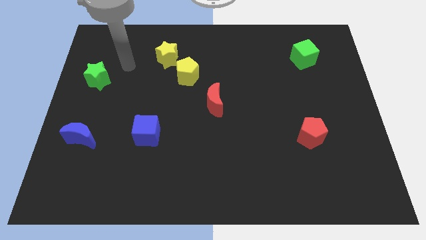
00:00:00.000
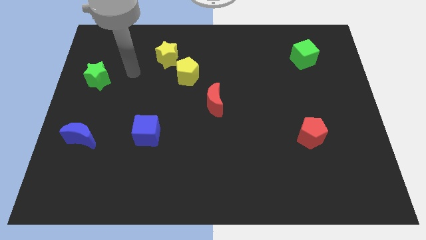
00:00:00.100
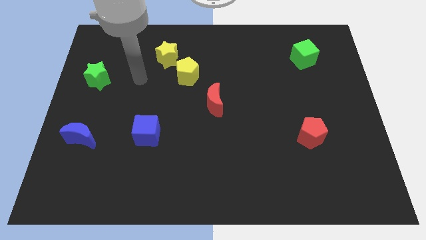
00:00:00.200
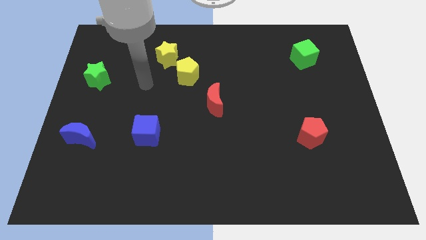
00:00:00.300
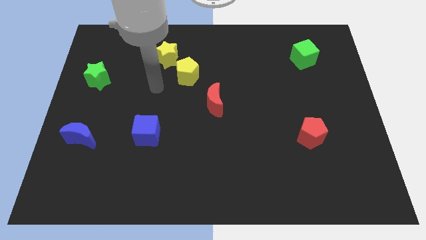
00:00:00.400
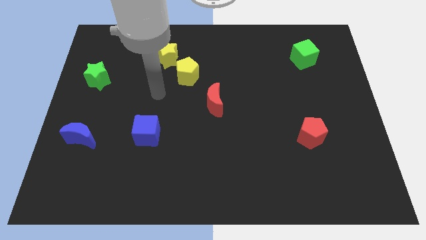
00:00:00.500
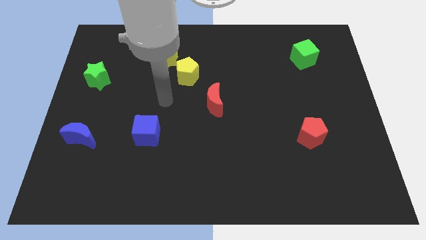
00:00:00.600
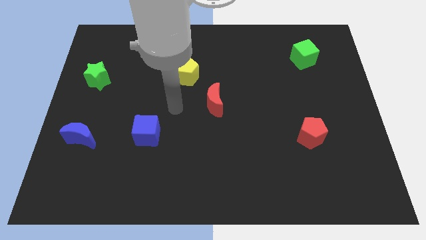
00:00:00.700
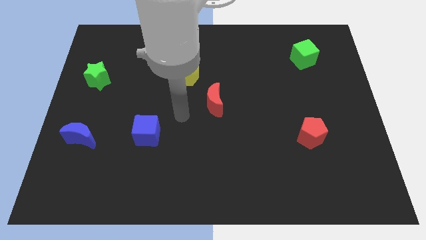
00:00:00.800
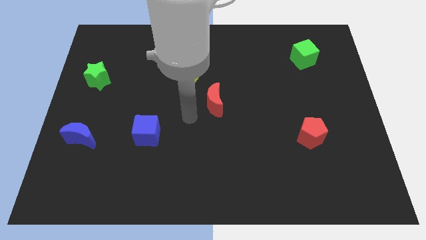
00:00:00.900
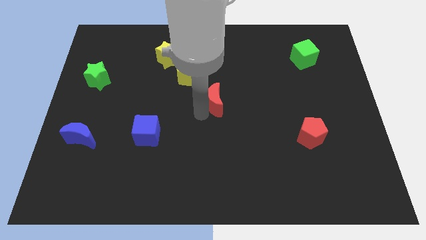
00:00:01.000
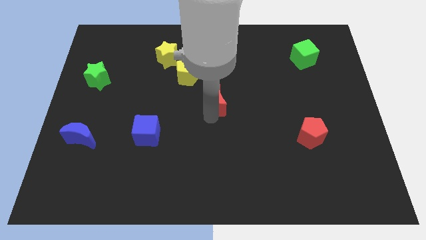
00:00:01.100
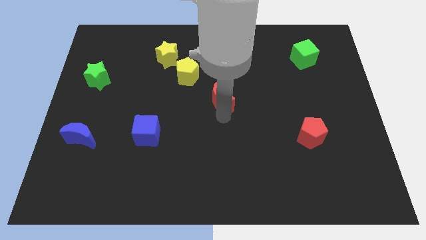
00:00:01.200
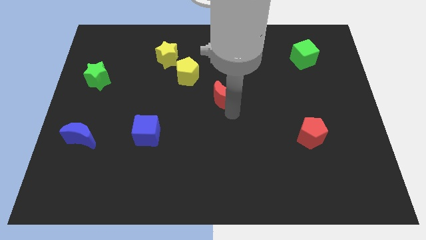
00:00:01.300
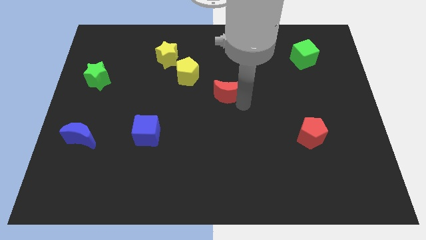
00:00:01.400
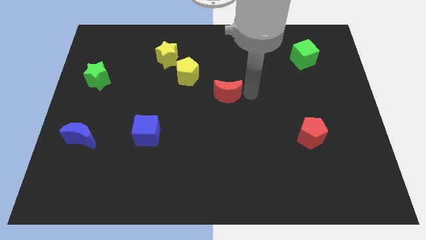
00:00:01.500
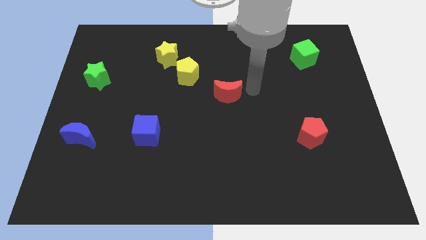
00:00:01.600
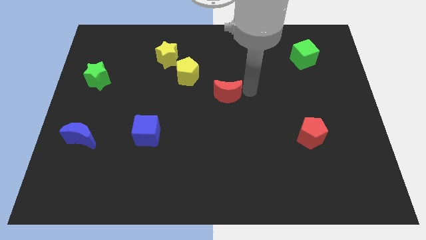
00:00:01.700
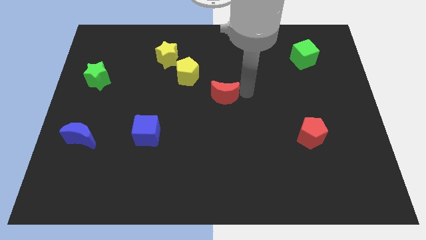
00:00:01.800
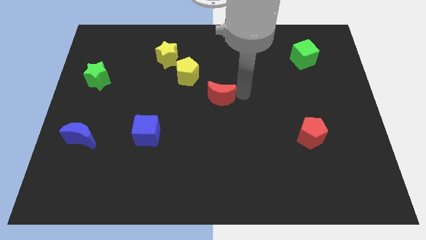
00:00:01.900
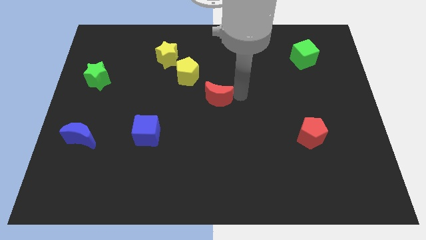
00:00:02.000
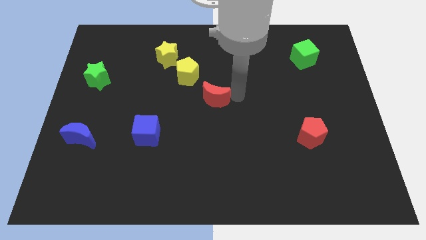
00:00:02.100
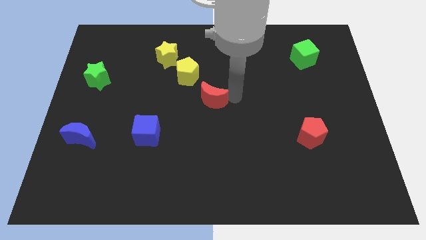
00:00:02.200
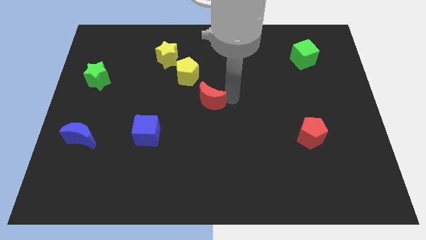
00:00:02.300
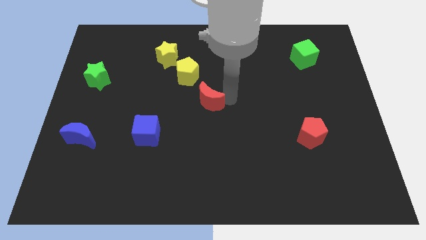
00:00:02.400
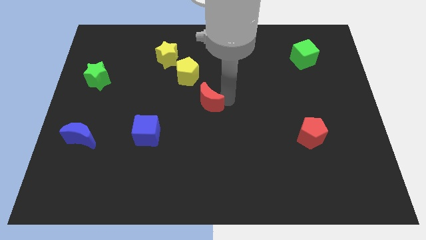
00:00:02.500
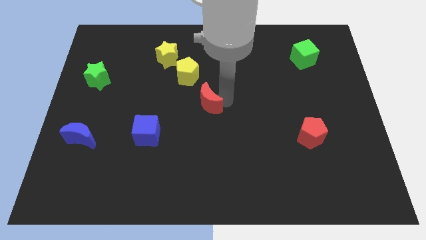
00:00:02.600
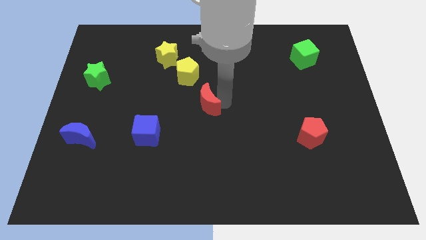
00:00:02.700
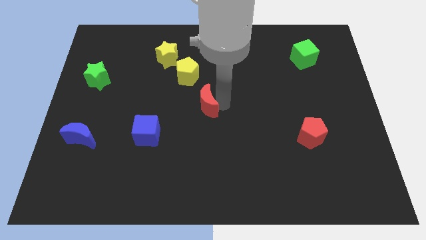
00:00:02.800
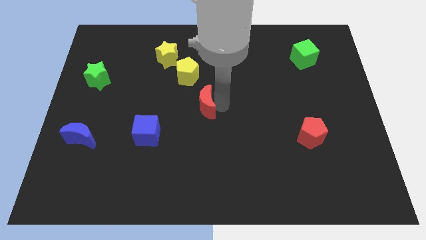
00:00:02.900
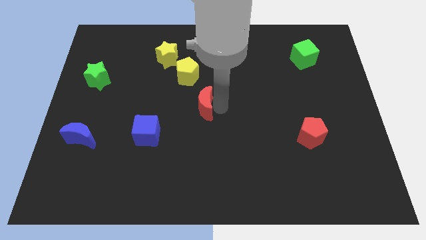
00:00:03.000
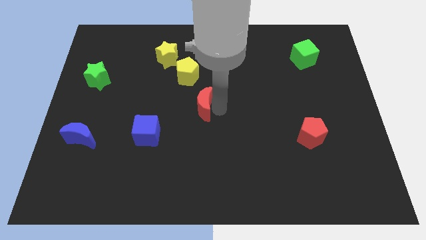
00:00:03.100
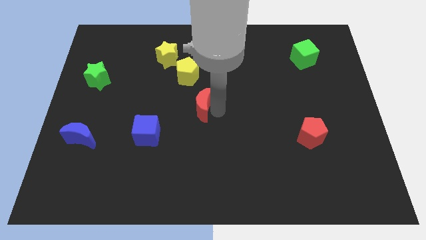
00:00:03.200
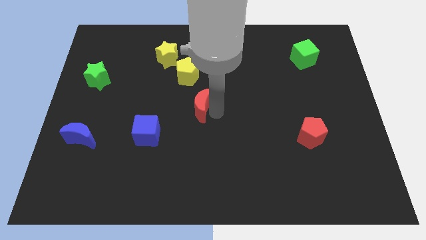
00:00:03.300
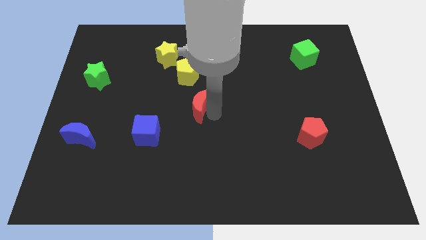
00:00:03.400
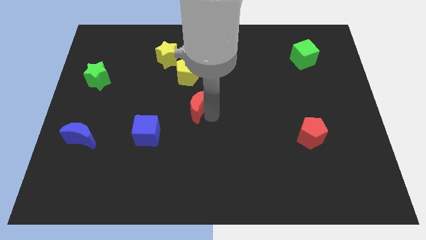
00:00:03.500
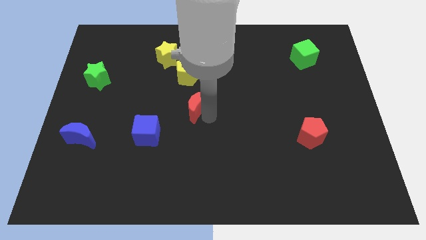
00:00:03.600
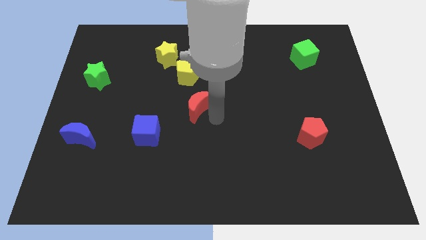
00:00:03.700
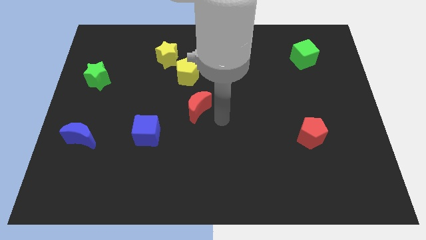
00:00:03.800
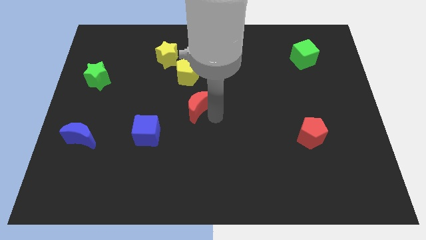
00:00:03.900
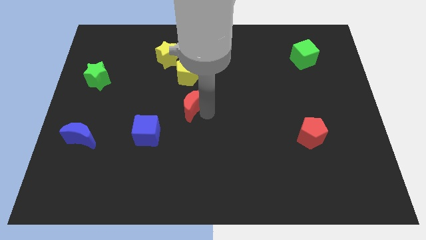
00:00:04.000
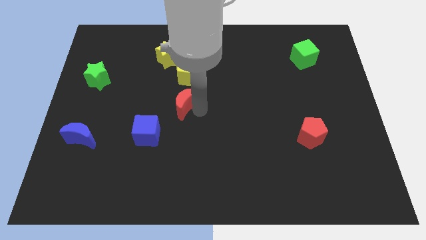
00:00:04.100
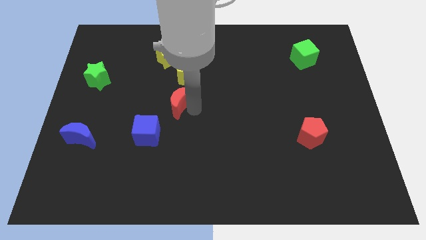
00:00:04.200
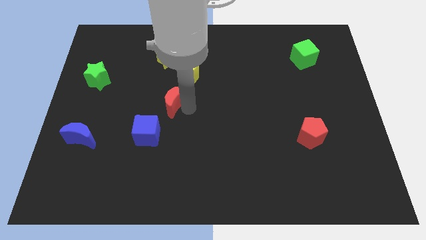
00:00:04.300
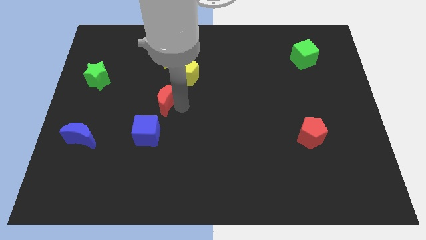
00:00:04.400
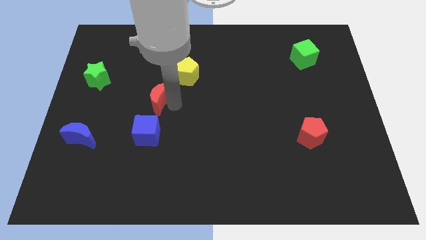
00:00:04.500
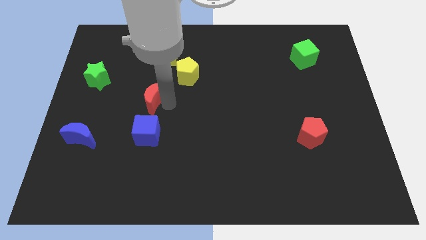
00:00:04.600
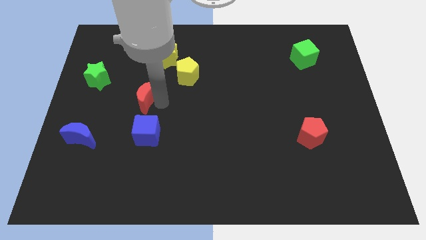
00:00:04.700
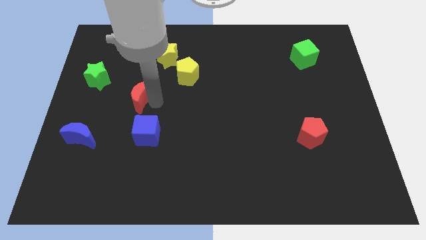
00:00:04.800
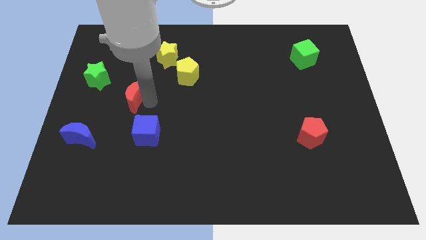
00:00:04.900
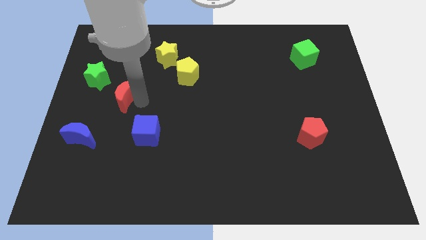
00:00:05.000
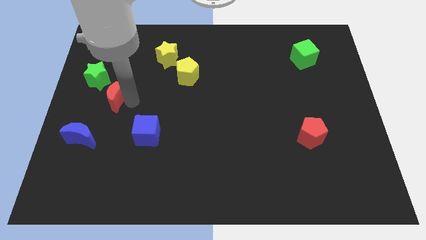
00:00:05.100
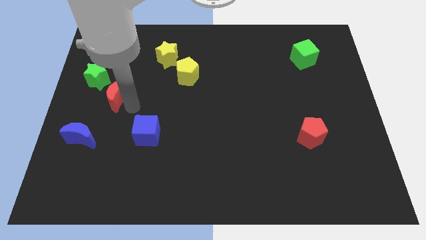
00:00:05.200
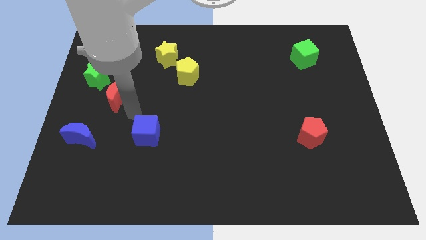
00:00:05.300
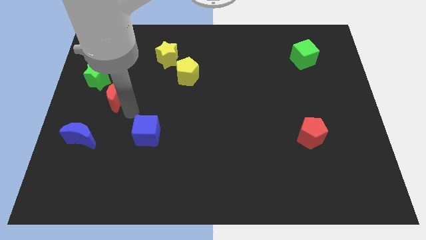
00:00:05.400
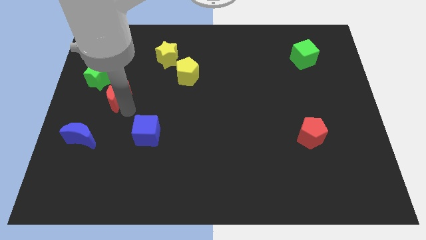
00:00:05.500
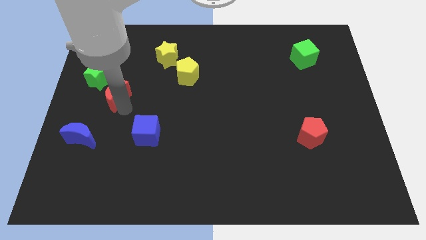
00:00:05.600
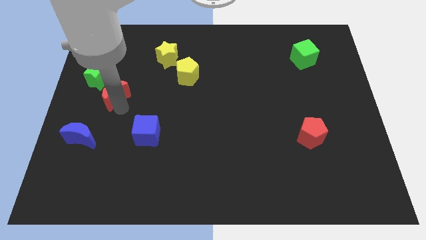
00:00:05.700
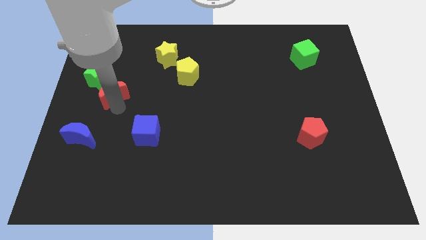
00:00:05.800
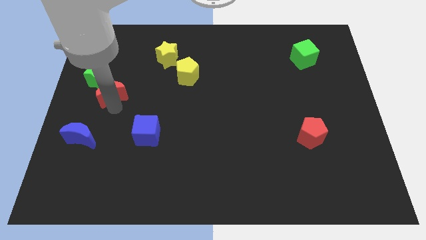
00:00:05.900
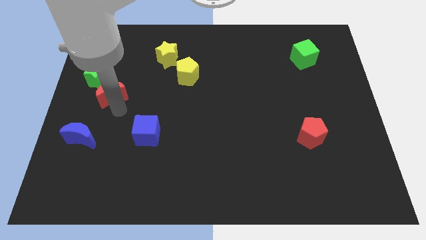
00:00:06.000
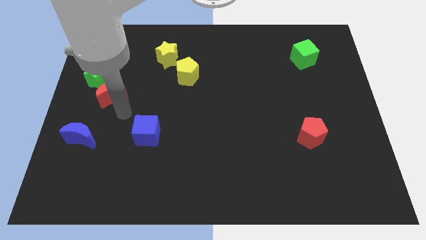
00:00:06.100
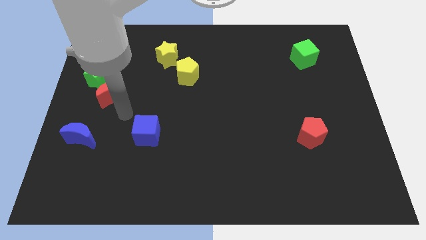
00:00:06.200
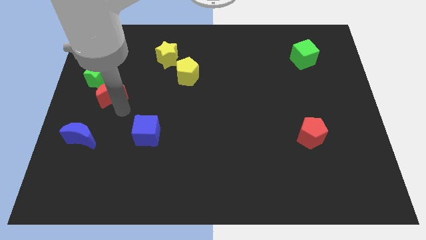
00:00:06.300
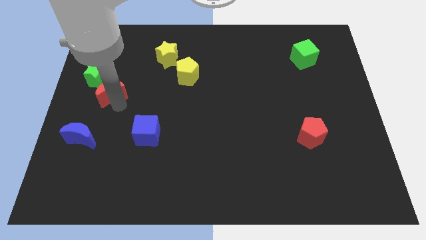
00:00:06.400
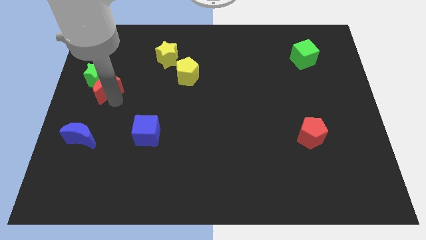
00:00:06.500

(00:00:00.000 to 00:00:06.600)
push the red moon to the green star
